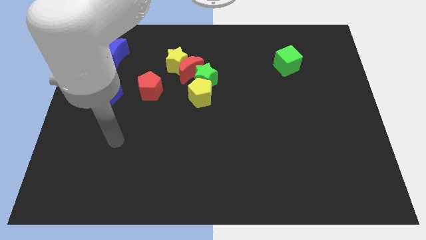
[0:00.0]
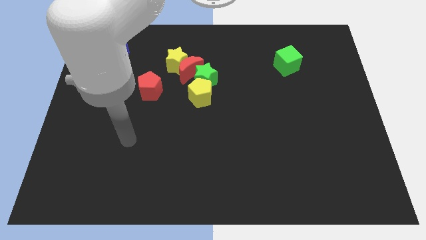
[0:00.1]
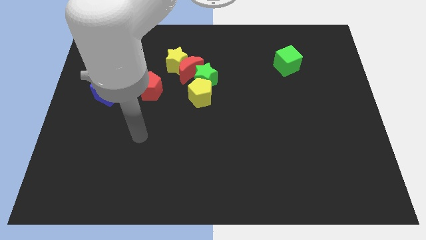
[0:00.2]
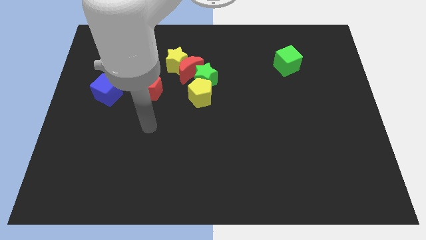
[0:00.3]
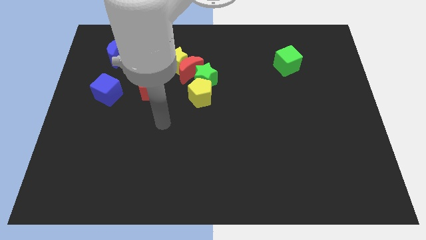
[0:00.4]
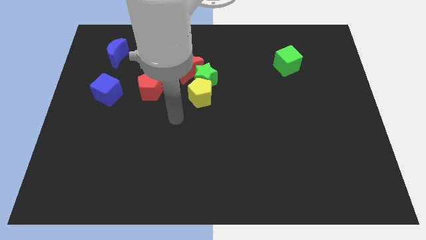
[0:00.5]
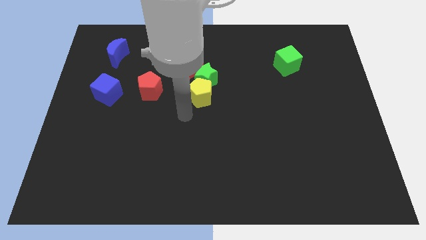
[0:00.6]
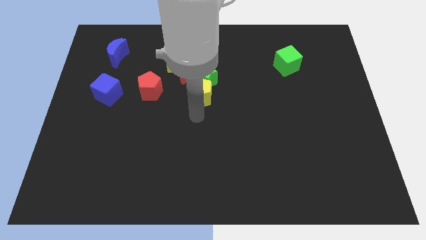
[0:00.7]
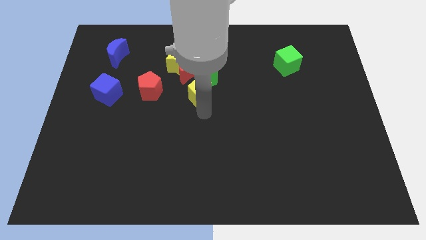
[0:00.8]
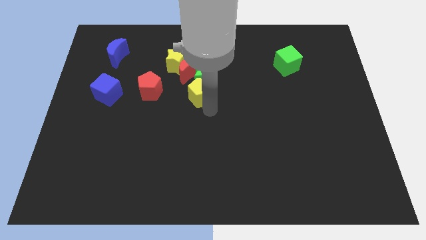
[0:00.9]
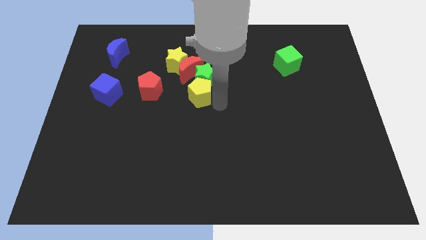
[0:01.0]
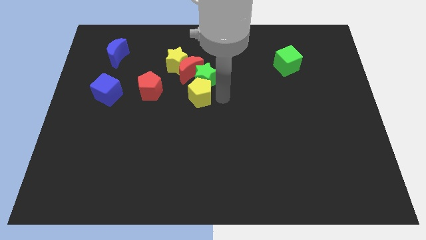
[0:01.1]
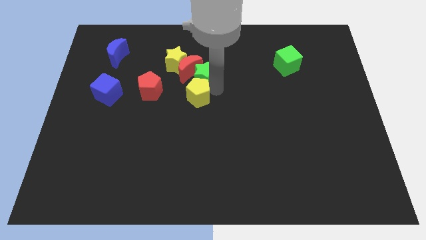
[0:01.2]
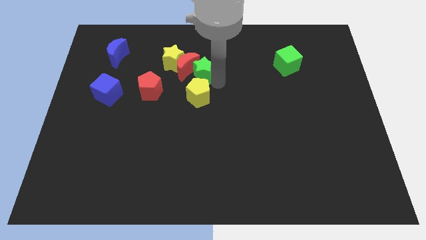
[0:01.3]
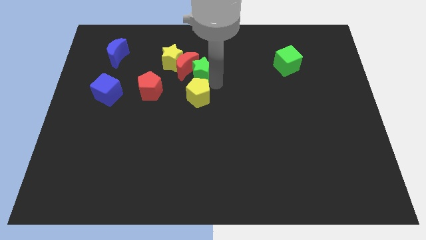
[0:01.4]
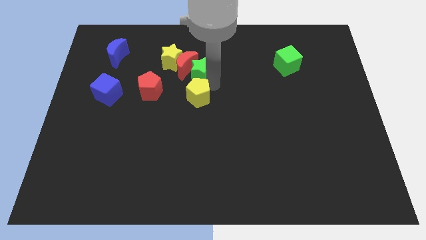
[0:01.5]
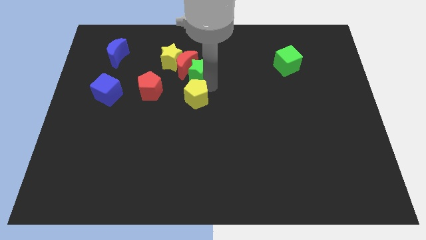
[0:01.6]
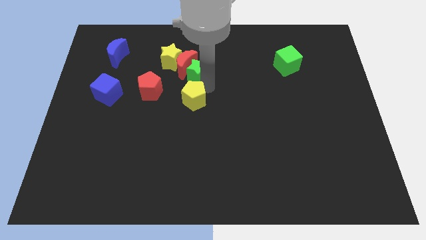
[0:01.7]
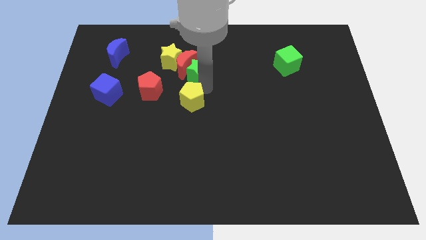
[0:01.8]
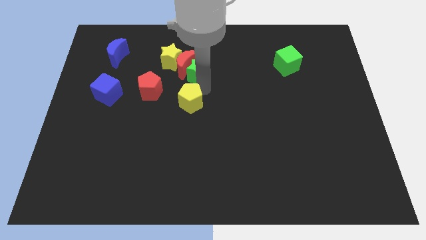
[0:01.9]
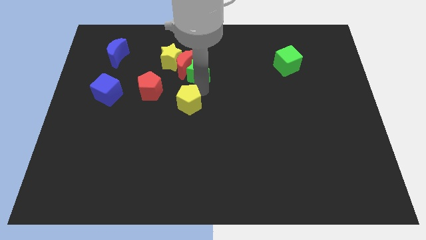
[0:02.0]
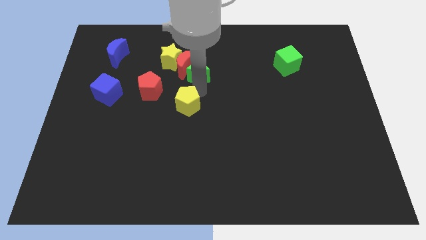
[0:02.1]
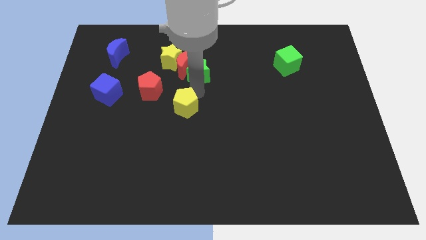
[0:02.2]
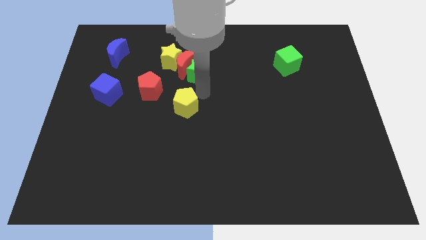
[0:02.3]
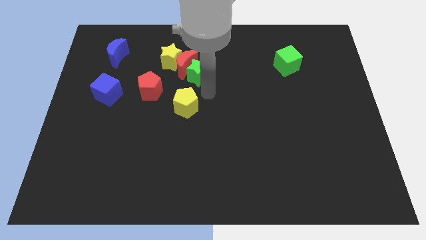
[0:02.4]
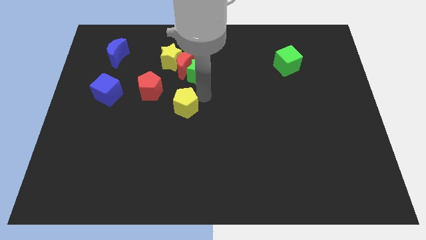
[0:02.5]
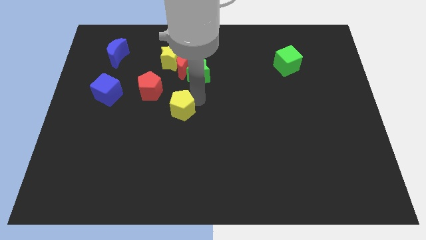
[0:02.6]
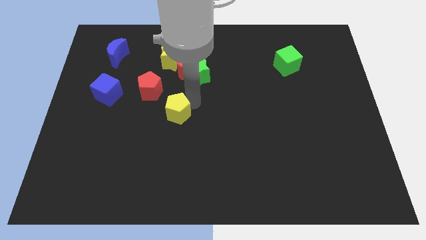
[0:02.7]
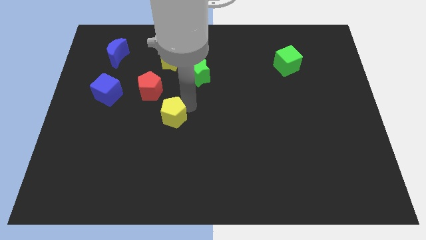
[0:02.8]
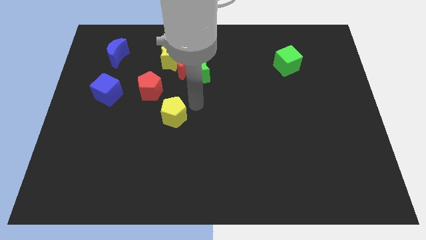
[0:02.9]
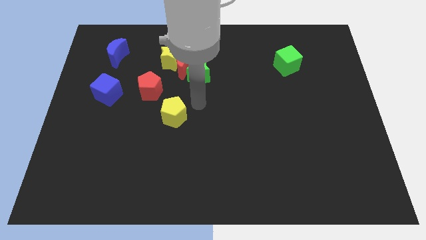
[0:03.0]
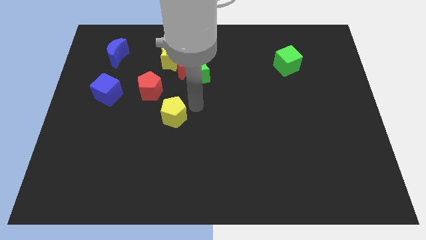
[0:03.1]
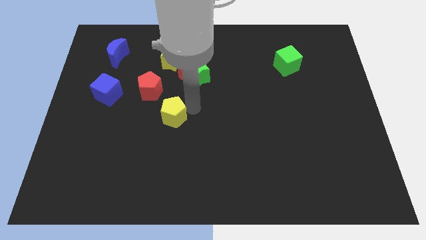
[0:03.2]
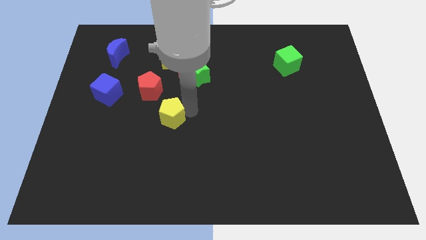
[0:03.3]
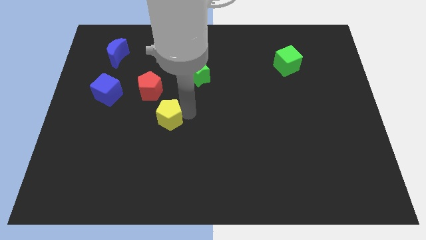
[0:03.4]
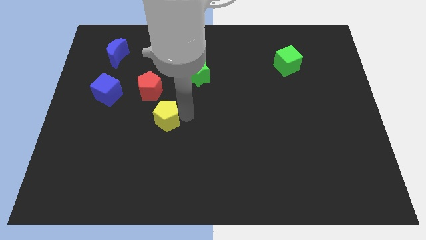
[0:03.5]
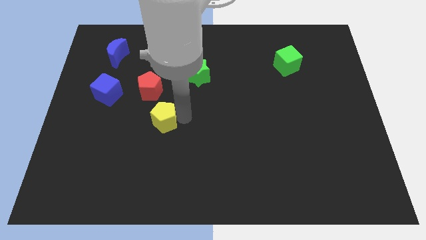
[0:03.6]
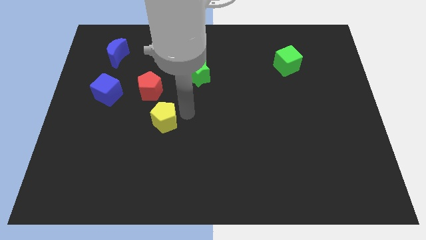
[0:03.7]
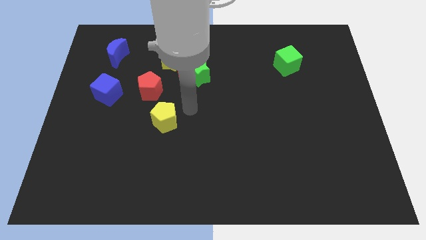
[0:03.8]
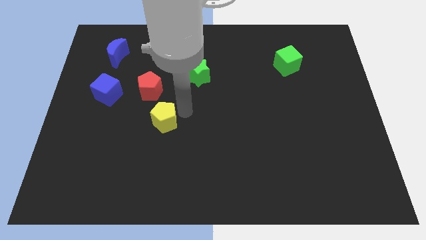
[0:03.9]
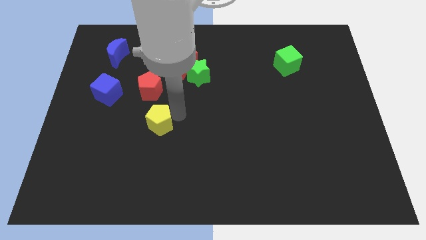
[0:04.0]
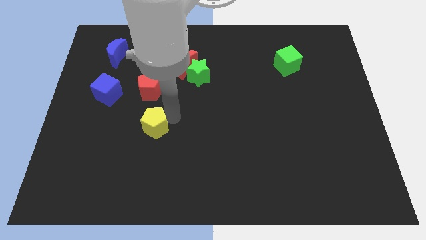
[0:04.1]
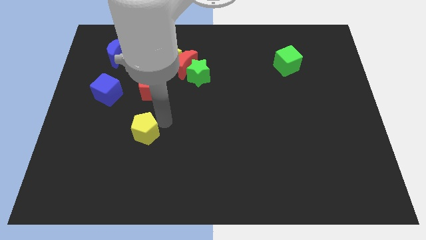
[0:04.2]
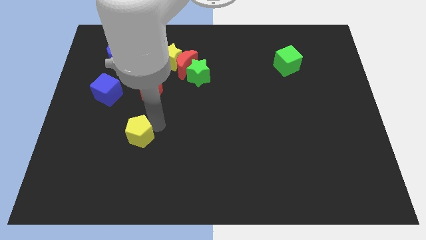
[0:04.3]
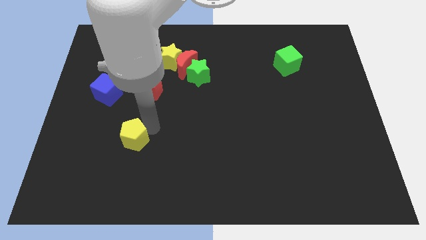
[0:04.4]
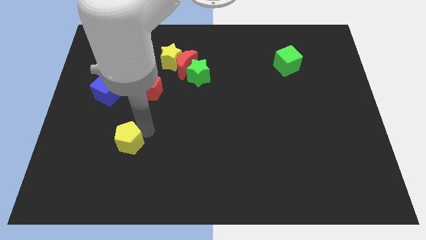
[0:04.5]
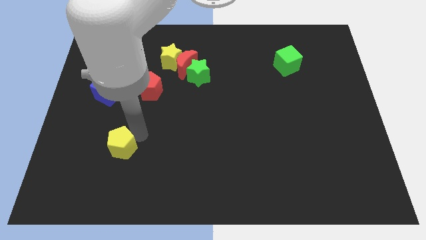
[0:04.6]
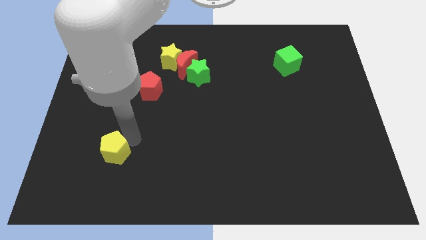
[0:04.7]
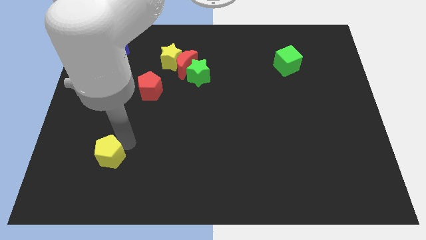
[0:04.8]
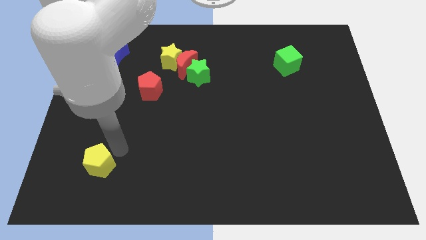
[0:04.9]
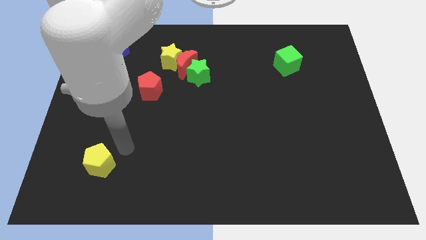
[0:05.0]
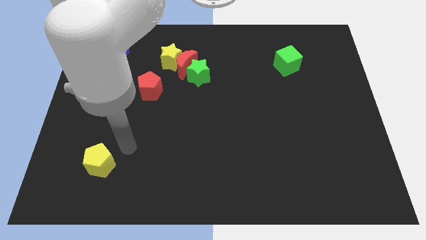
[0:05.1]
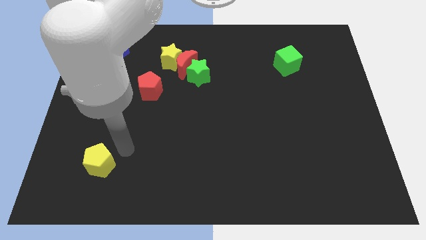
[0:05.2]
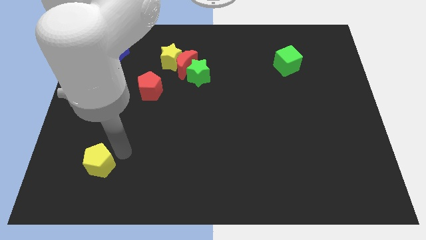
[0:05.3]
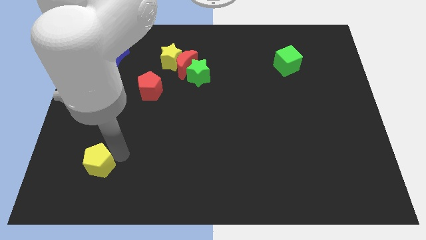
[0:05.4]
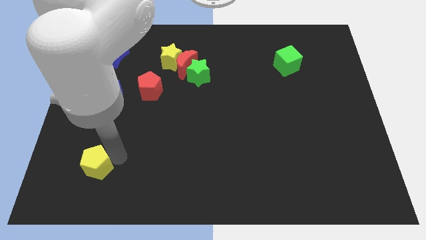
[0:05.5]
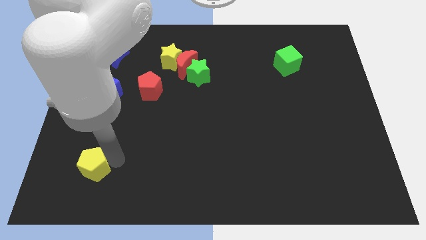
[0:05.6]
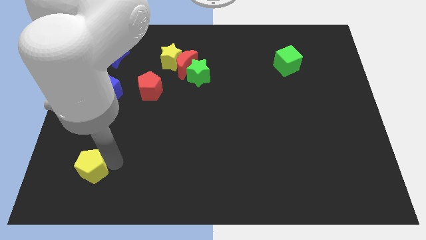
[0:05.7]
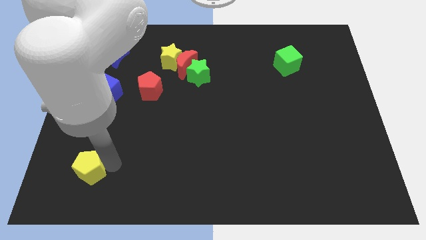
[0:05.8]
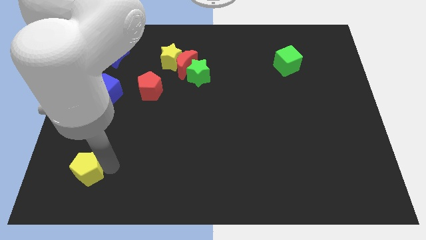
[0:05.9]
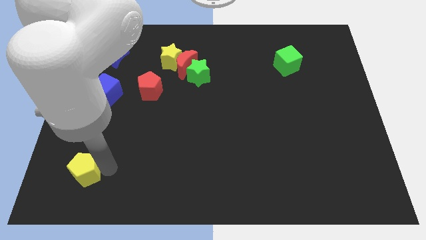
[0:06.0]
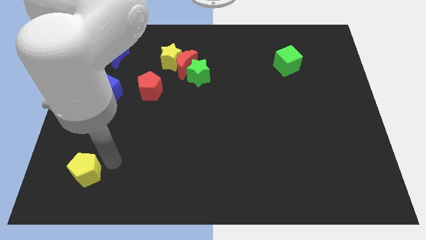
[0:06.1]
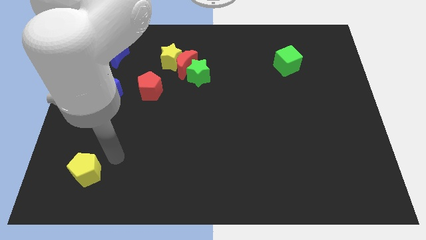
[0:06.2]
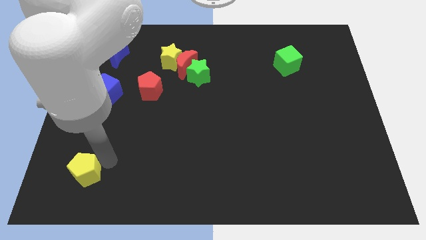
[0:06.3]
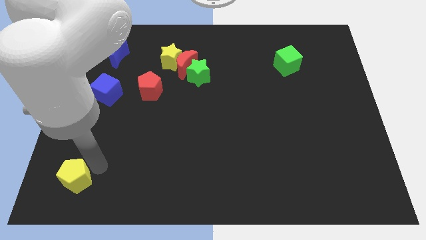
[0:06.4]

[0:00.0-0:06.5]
move the yellow pentagon to the bottom left
